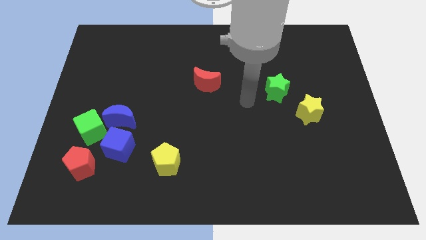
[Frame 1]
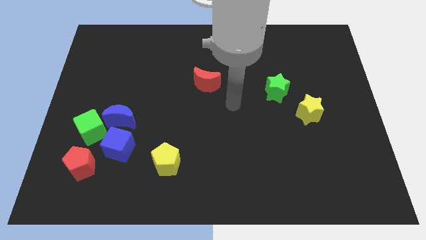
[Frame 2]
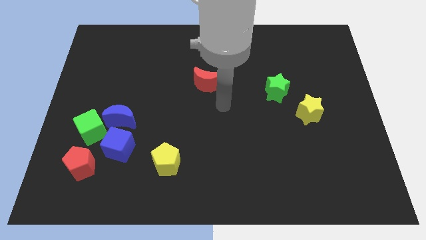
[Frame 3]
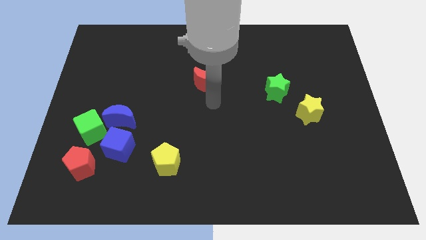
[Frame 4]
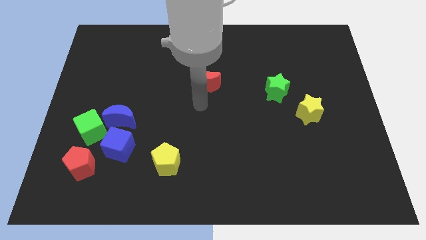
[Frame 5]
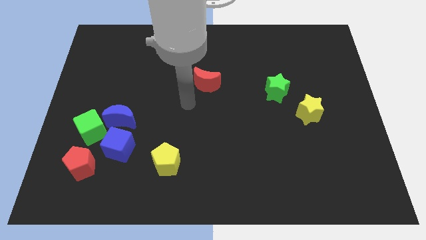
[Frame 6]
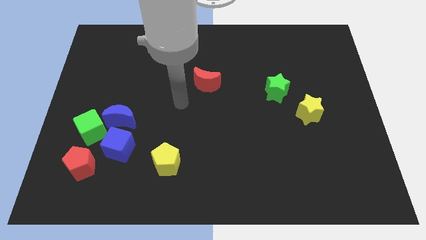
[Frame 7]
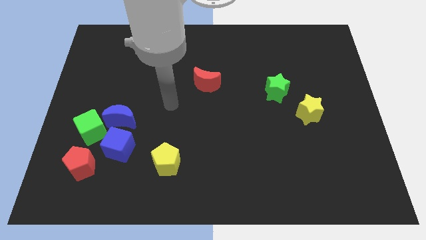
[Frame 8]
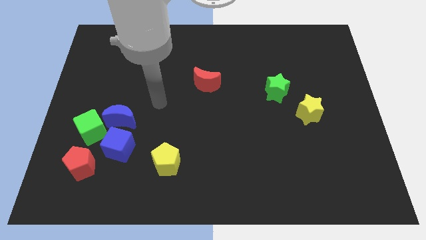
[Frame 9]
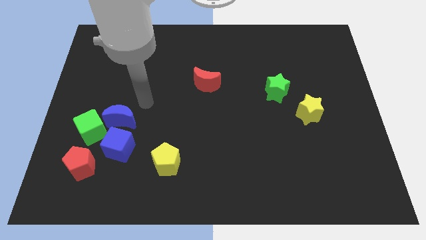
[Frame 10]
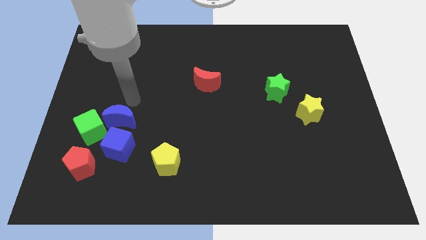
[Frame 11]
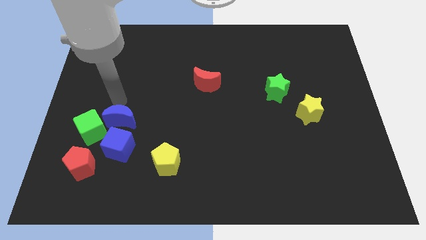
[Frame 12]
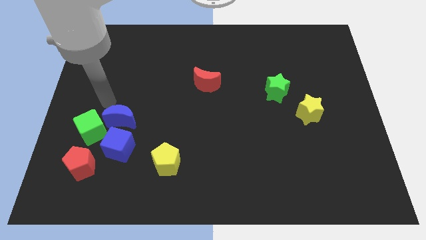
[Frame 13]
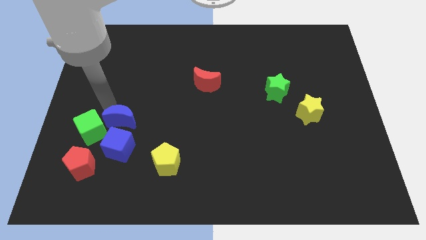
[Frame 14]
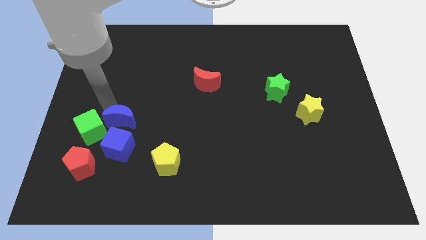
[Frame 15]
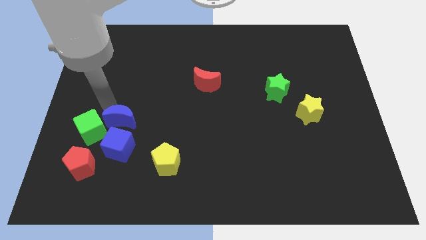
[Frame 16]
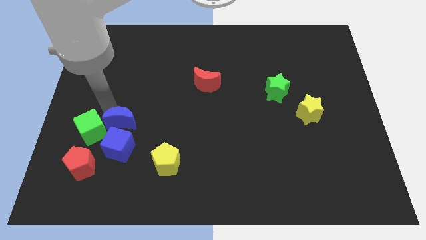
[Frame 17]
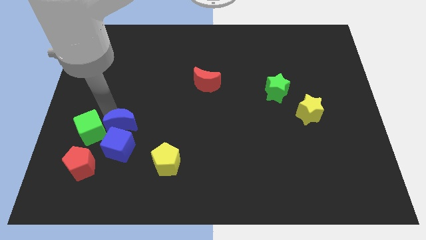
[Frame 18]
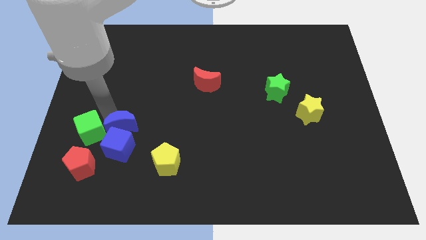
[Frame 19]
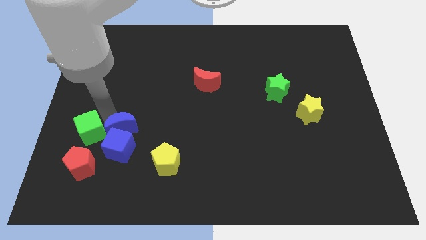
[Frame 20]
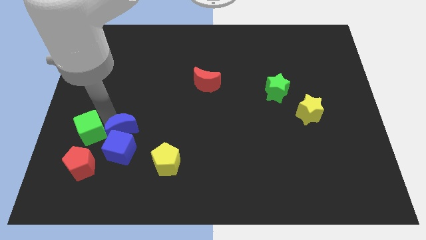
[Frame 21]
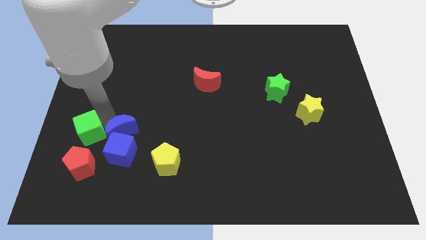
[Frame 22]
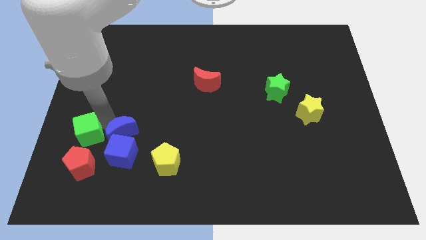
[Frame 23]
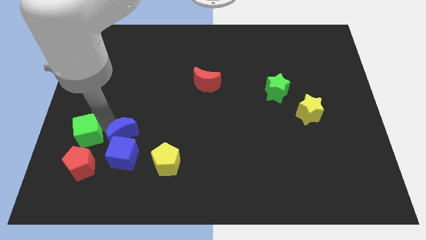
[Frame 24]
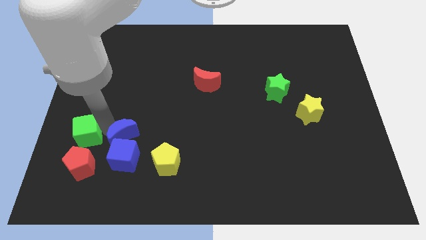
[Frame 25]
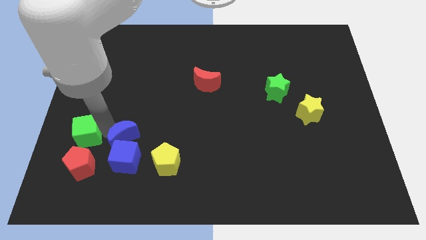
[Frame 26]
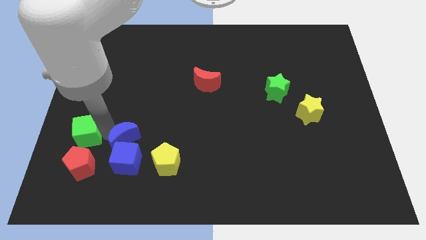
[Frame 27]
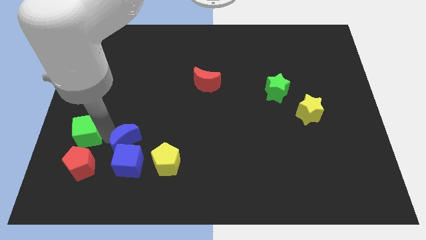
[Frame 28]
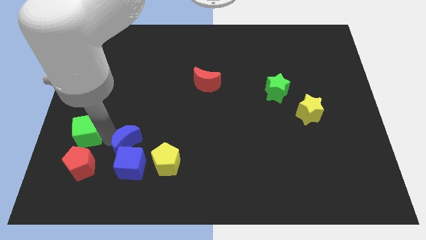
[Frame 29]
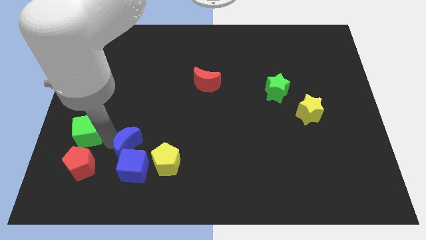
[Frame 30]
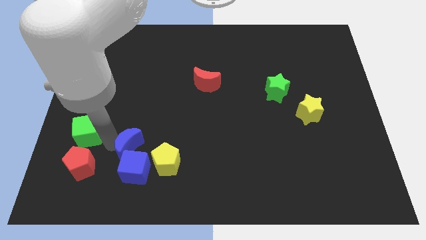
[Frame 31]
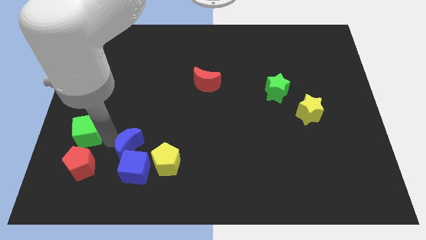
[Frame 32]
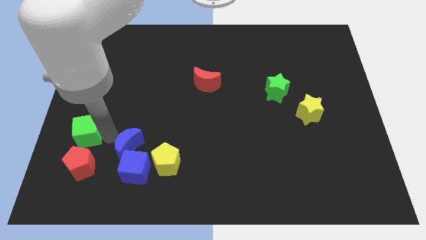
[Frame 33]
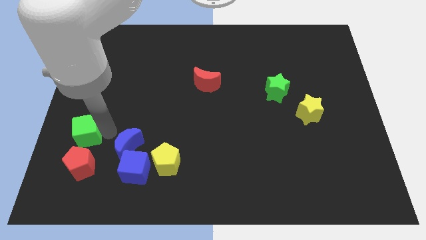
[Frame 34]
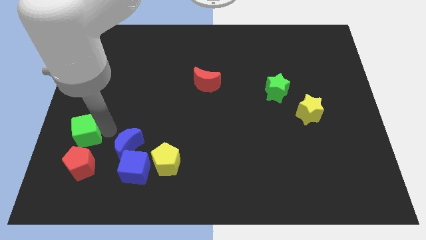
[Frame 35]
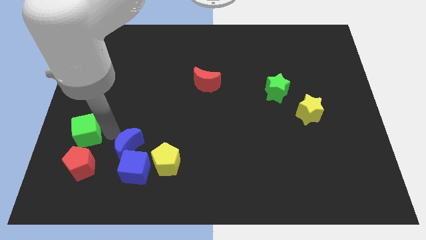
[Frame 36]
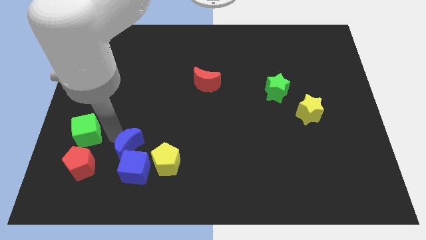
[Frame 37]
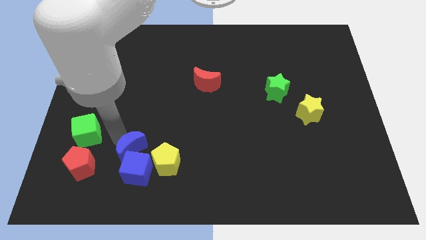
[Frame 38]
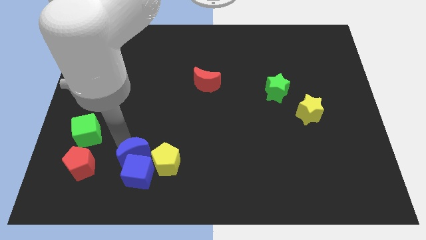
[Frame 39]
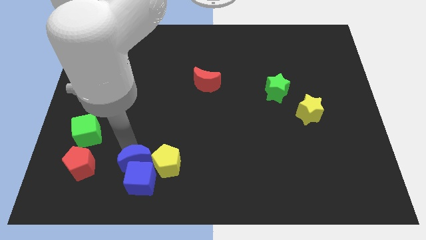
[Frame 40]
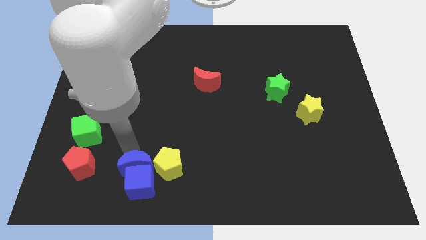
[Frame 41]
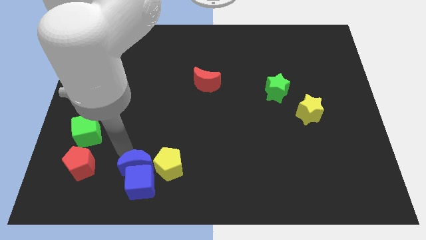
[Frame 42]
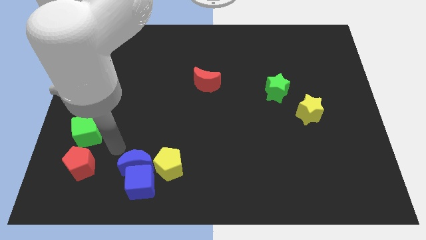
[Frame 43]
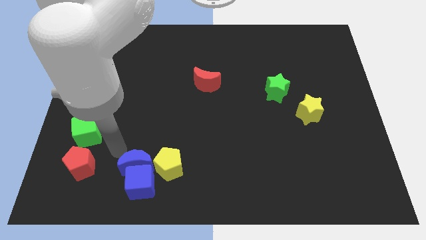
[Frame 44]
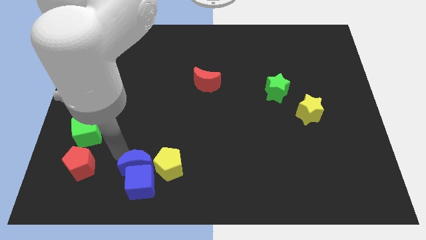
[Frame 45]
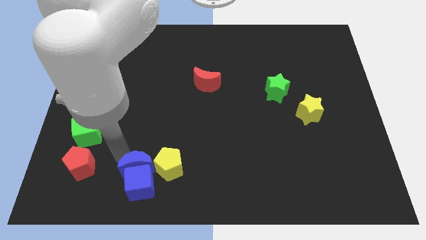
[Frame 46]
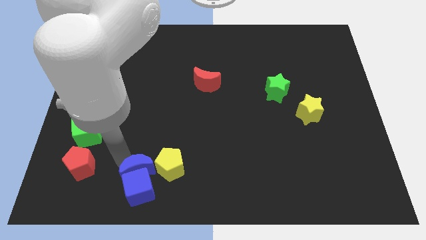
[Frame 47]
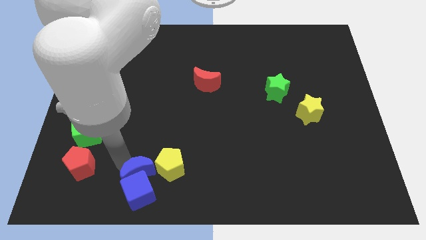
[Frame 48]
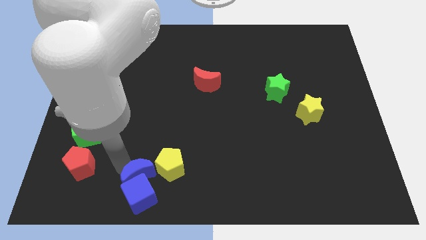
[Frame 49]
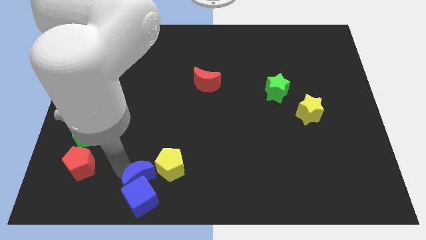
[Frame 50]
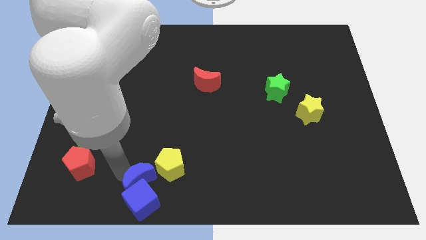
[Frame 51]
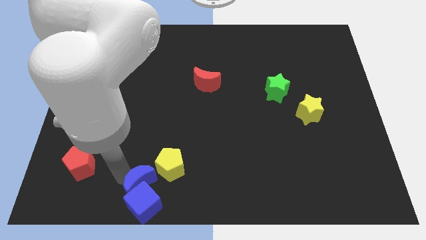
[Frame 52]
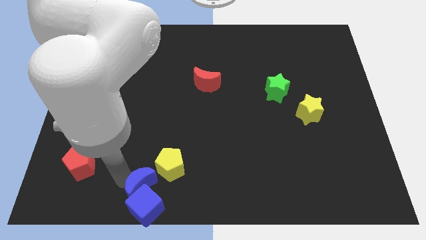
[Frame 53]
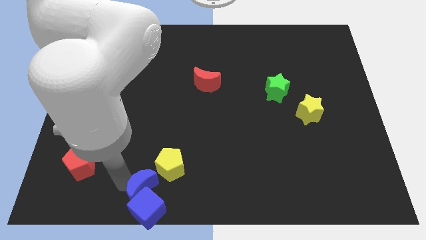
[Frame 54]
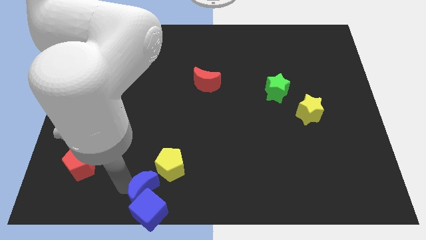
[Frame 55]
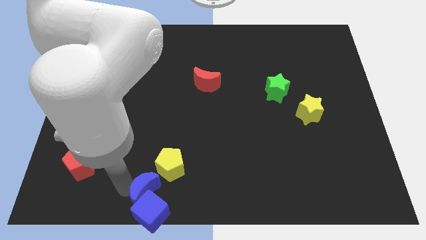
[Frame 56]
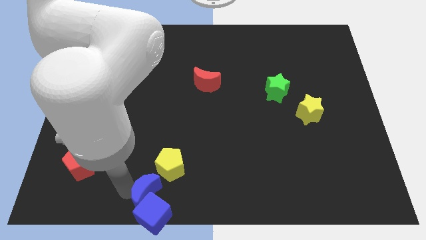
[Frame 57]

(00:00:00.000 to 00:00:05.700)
put the blue moon to the bottom

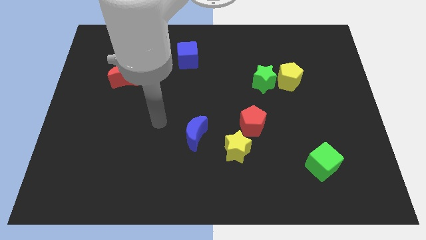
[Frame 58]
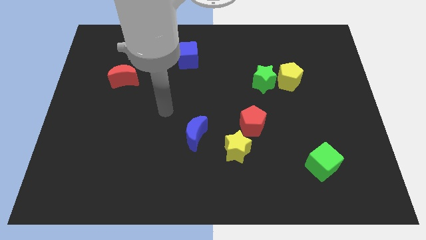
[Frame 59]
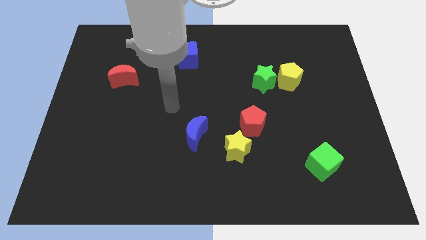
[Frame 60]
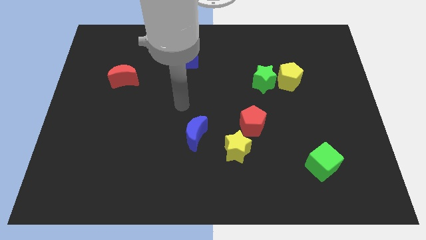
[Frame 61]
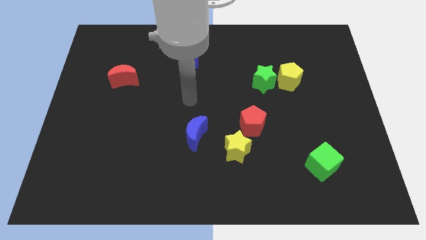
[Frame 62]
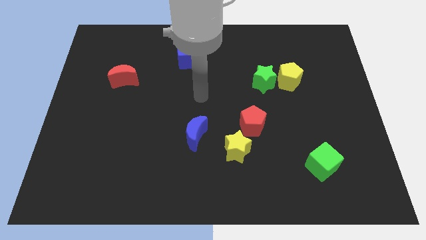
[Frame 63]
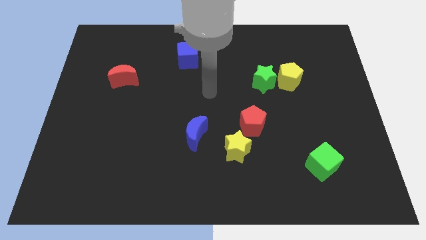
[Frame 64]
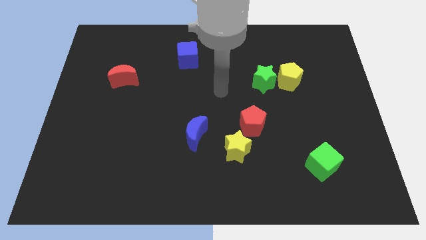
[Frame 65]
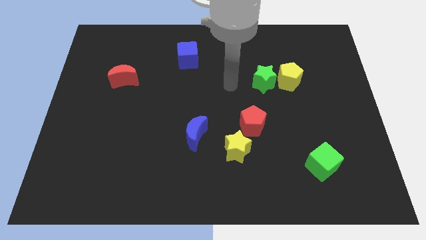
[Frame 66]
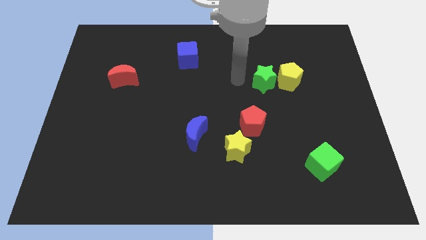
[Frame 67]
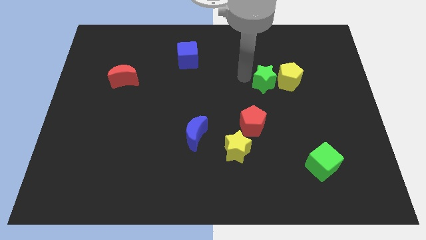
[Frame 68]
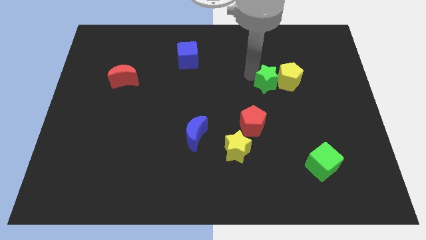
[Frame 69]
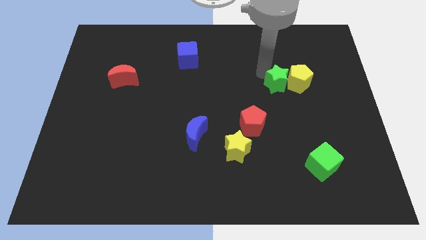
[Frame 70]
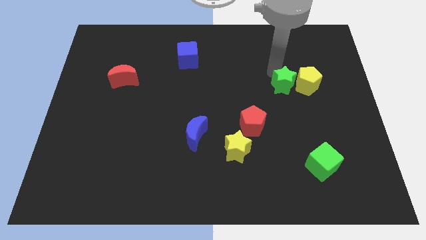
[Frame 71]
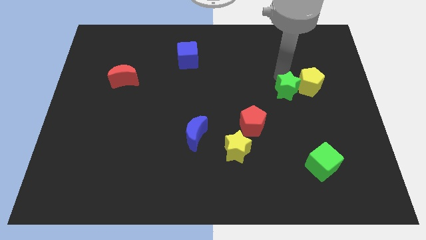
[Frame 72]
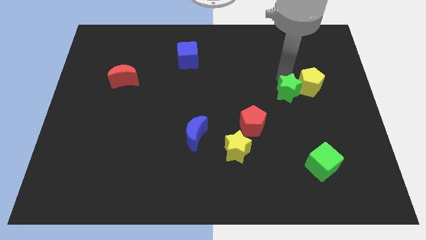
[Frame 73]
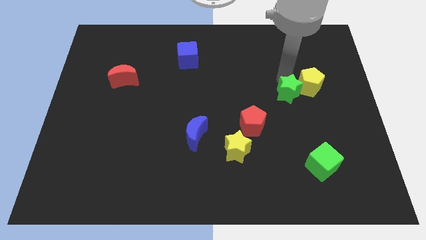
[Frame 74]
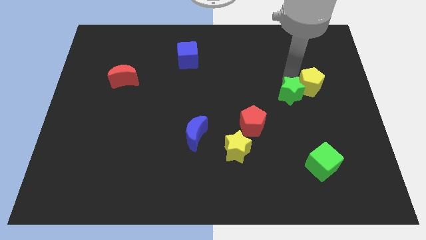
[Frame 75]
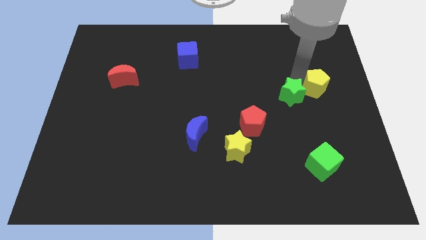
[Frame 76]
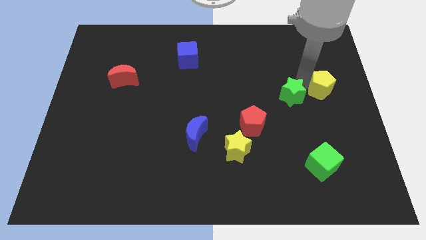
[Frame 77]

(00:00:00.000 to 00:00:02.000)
slide the yellow pentagon to the center right
